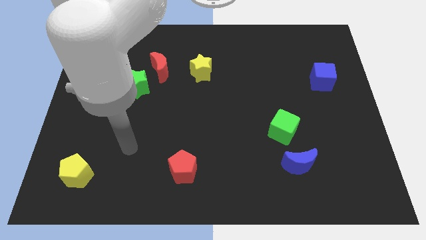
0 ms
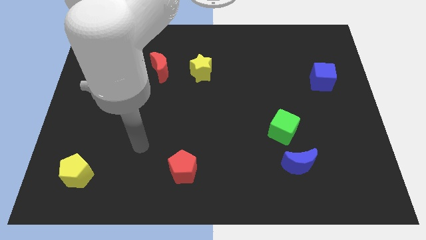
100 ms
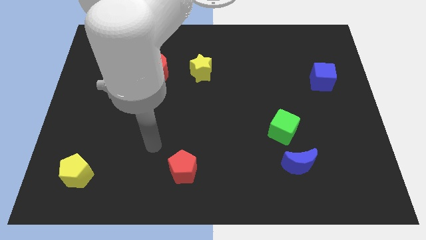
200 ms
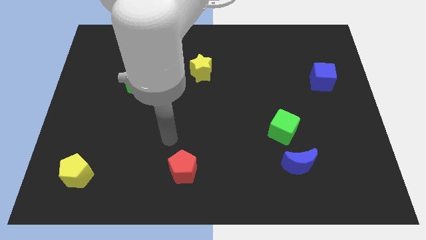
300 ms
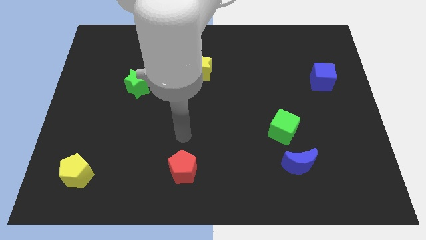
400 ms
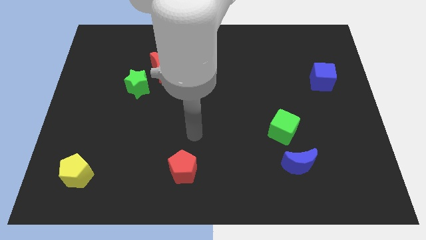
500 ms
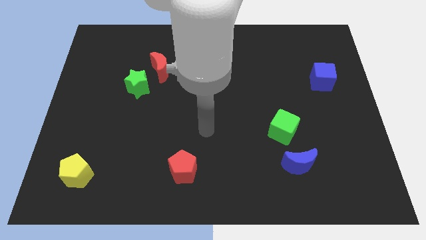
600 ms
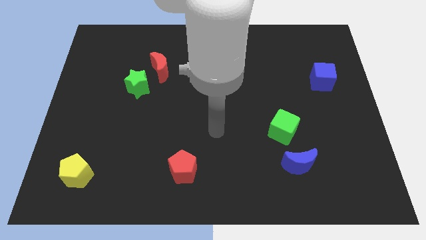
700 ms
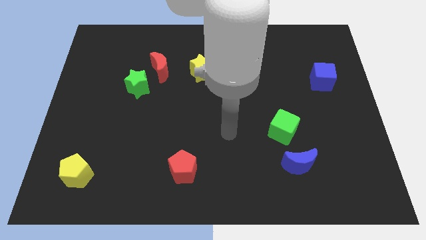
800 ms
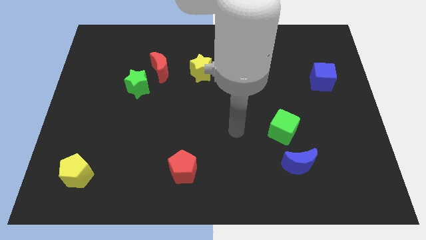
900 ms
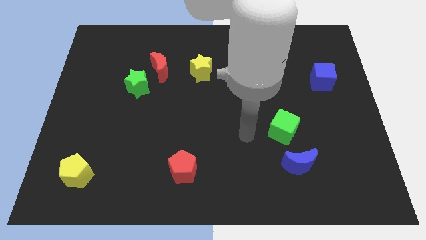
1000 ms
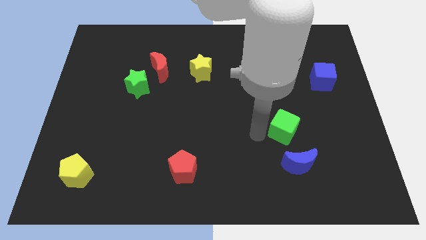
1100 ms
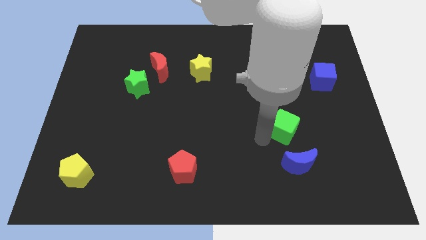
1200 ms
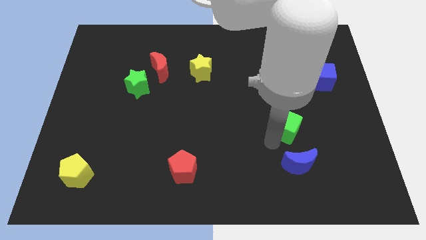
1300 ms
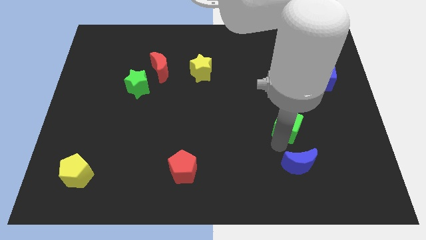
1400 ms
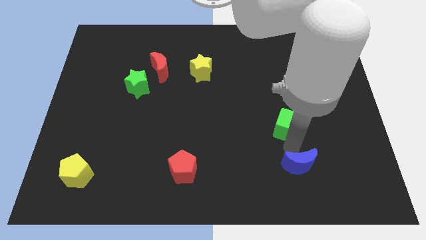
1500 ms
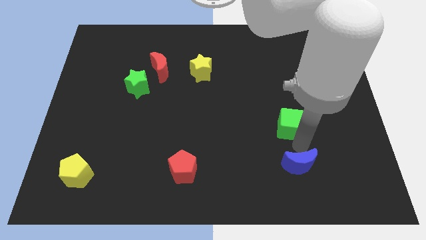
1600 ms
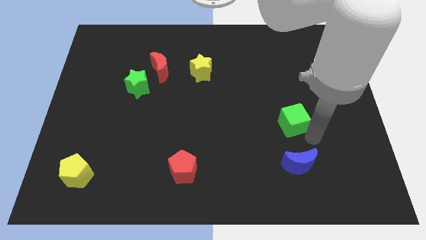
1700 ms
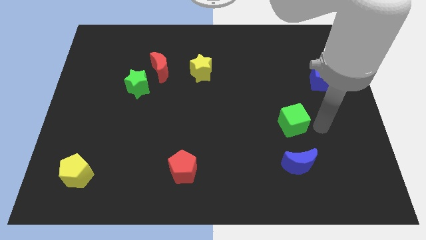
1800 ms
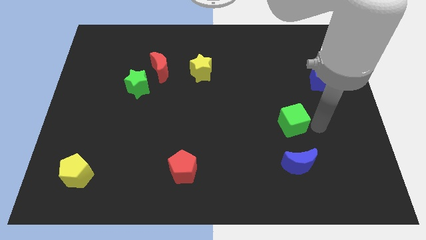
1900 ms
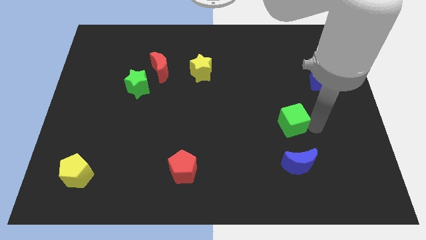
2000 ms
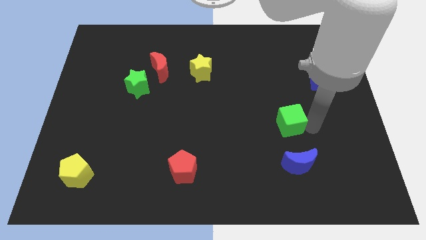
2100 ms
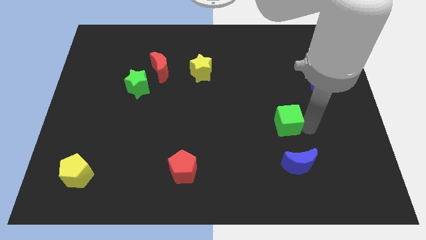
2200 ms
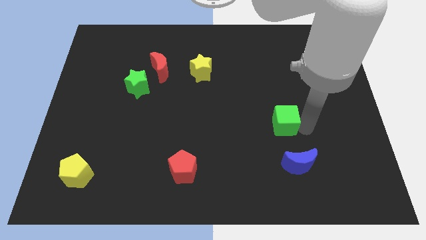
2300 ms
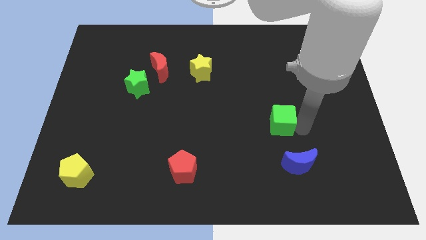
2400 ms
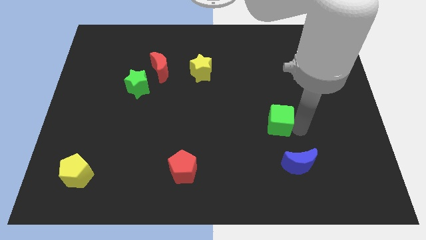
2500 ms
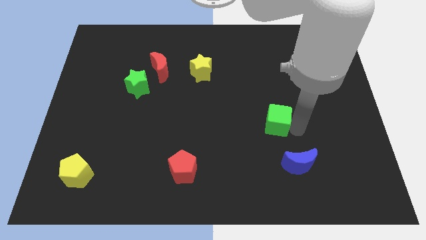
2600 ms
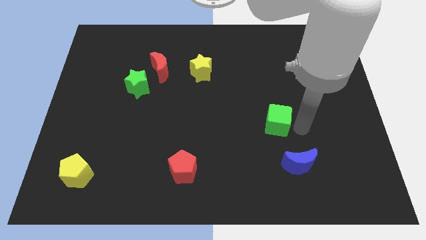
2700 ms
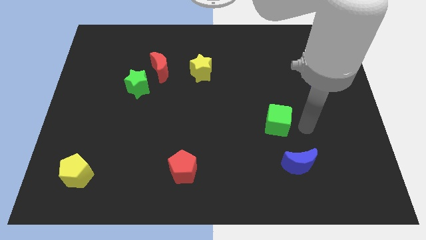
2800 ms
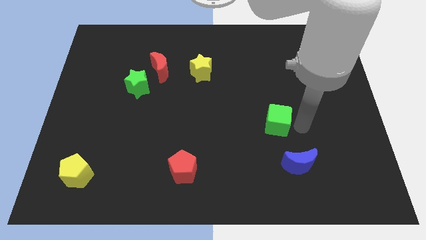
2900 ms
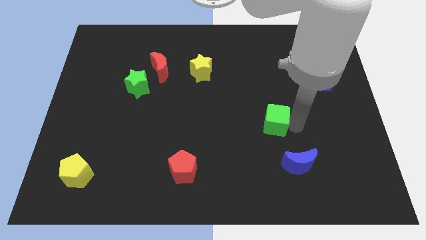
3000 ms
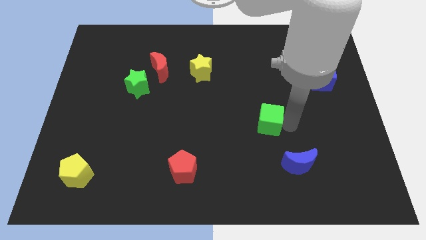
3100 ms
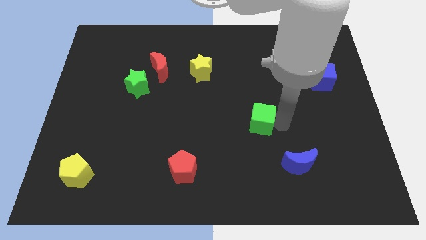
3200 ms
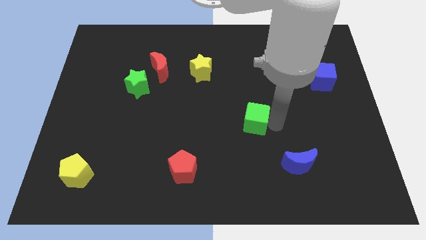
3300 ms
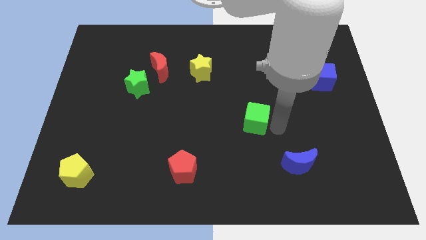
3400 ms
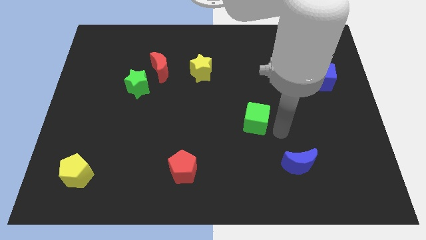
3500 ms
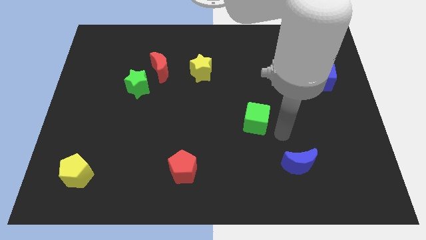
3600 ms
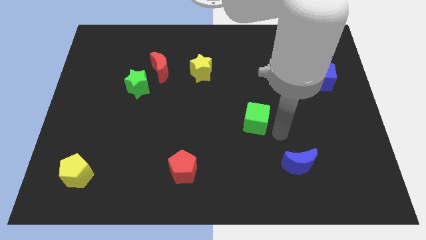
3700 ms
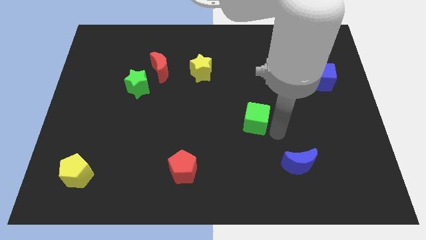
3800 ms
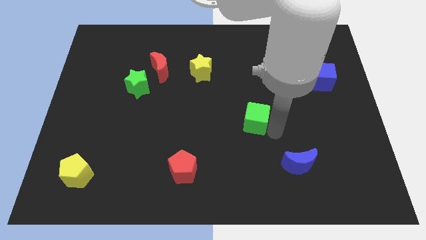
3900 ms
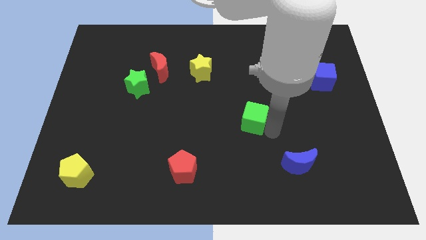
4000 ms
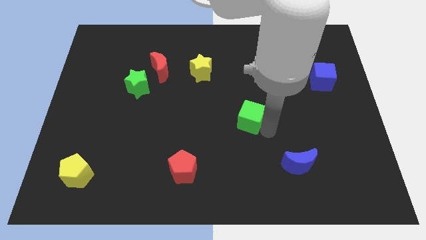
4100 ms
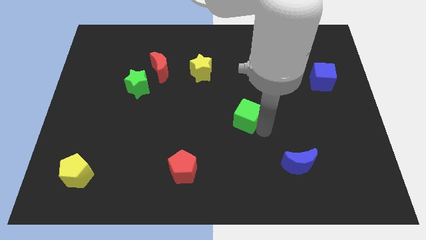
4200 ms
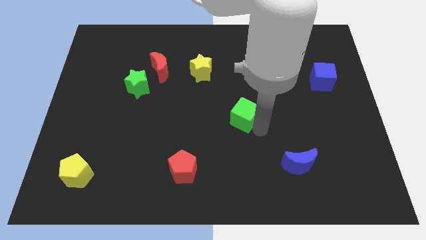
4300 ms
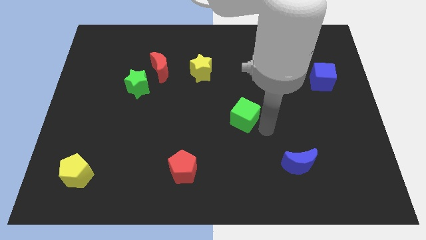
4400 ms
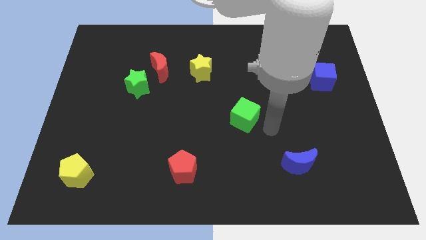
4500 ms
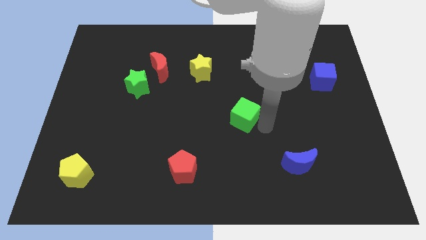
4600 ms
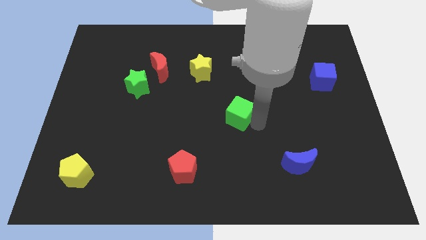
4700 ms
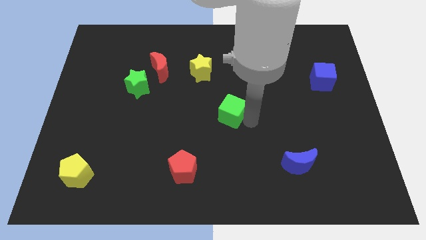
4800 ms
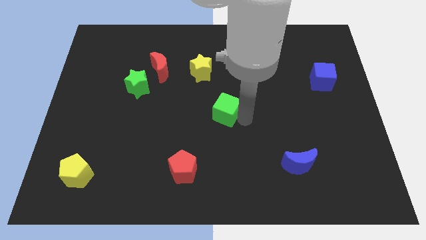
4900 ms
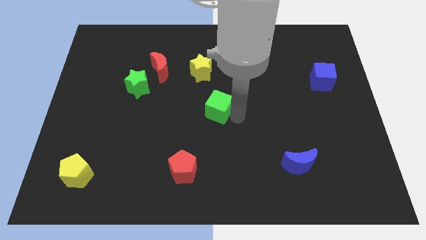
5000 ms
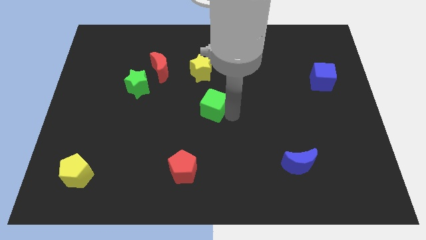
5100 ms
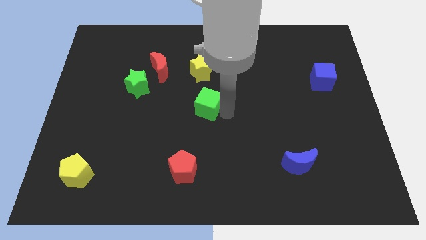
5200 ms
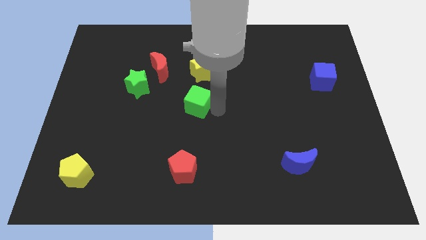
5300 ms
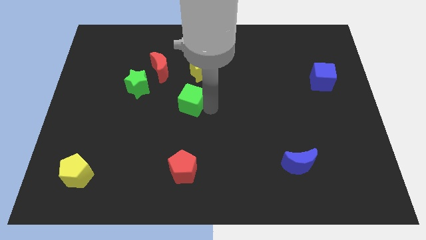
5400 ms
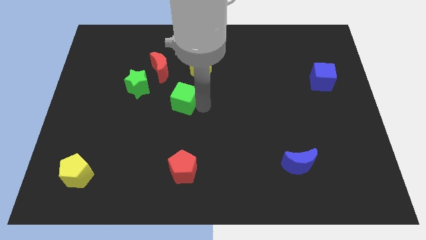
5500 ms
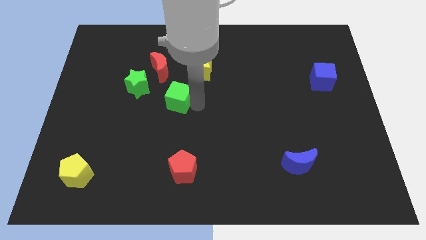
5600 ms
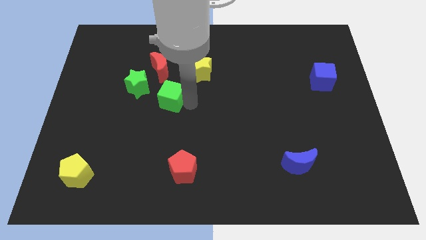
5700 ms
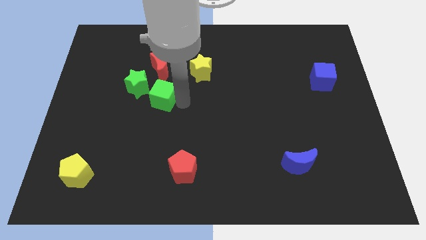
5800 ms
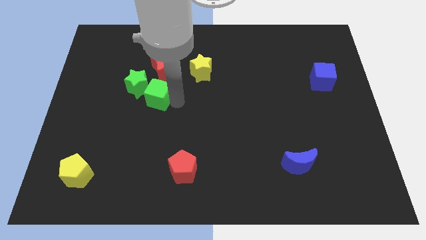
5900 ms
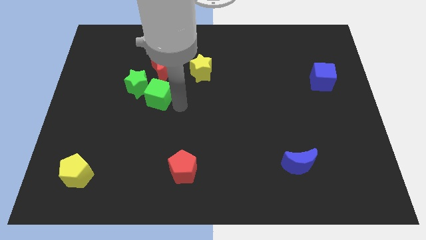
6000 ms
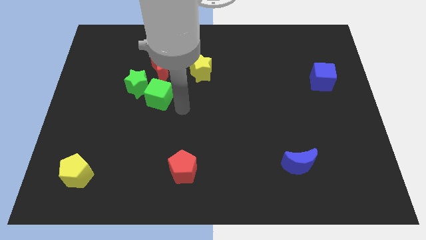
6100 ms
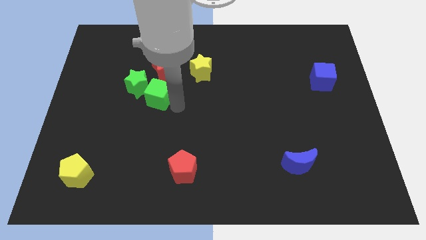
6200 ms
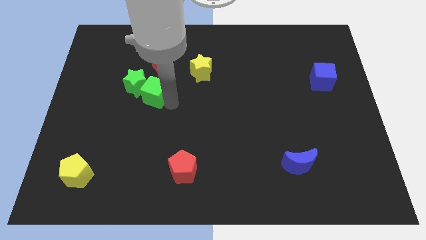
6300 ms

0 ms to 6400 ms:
slide the green cube to the green star

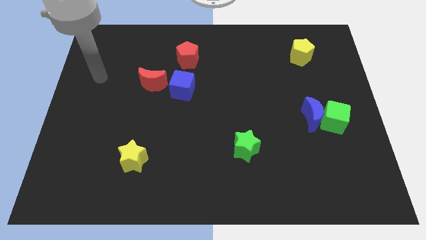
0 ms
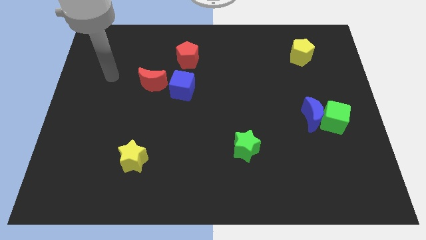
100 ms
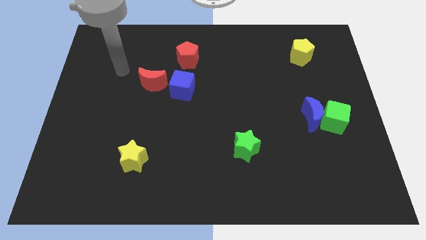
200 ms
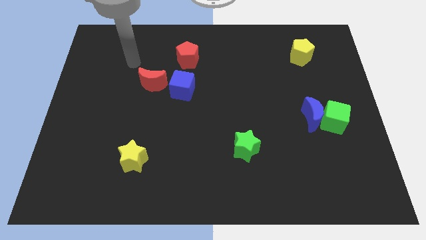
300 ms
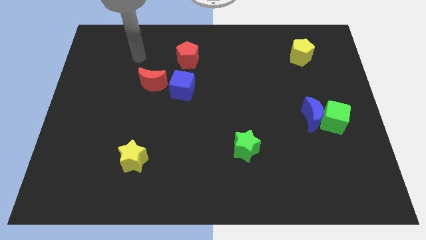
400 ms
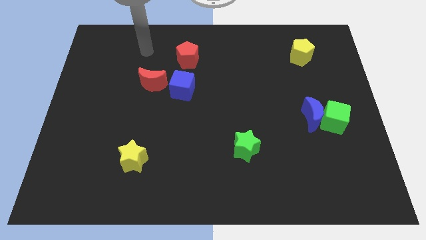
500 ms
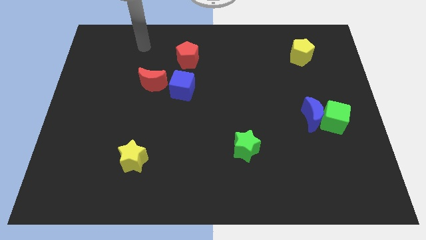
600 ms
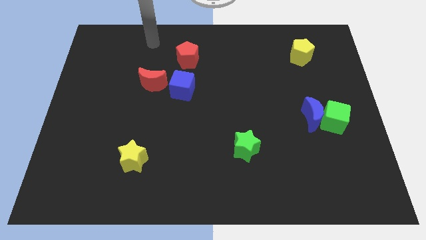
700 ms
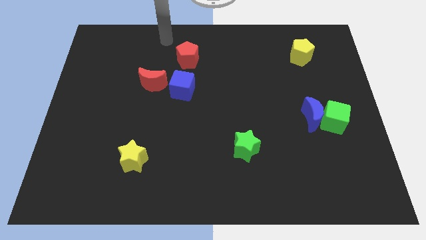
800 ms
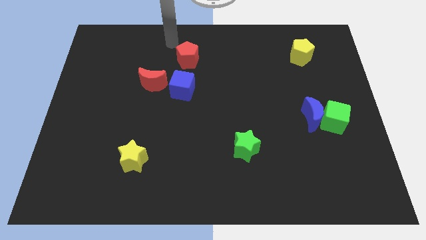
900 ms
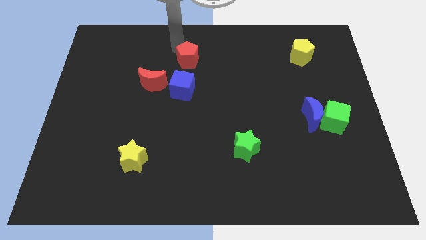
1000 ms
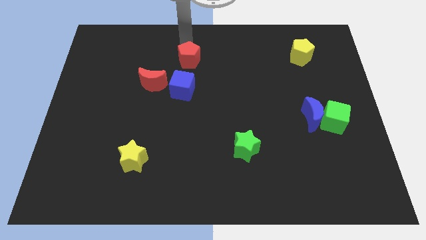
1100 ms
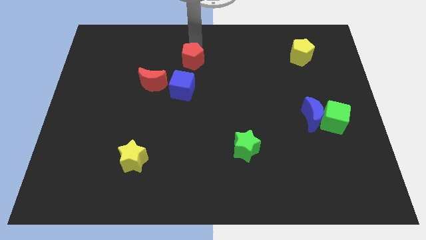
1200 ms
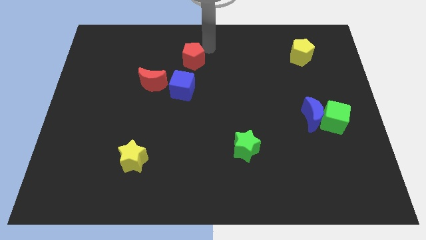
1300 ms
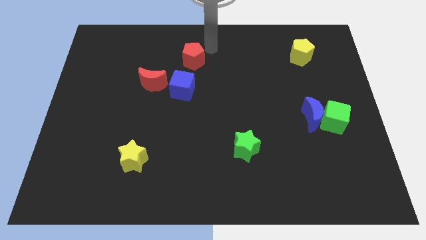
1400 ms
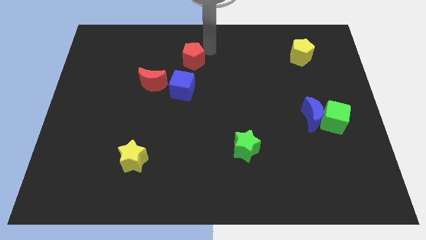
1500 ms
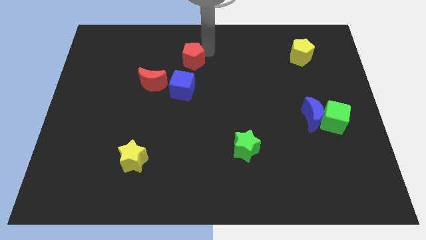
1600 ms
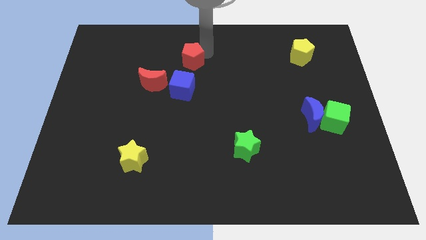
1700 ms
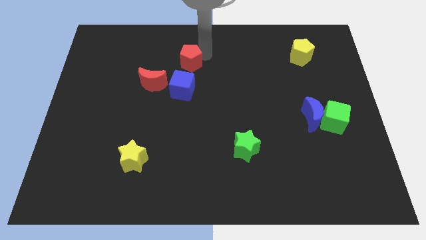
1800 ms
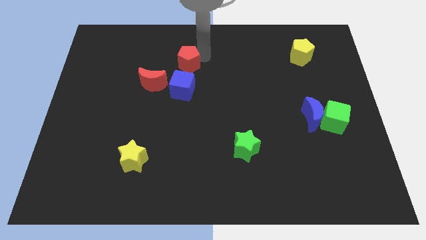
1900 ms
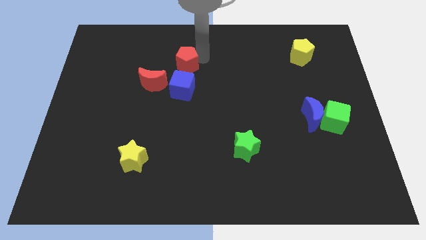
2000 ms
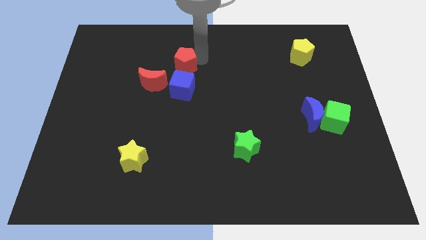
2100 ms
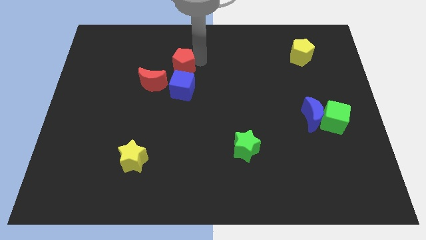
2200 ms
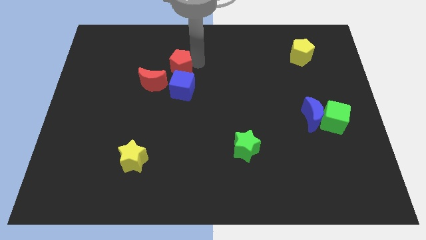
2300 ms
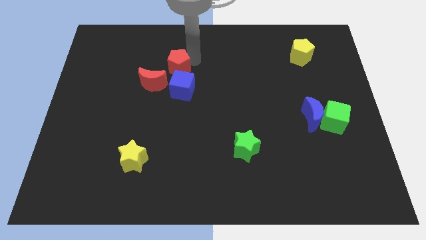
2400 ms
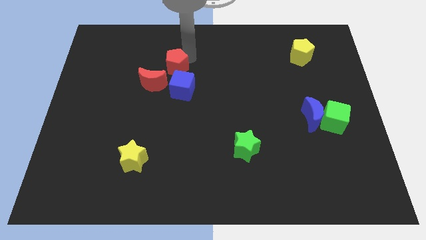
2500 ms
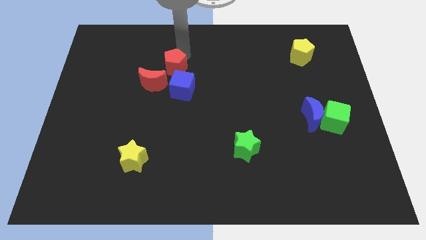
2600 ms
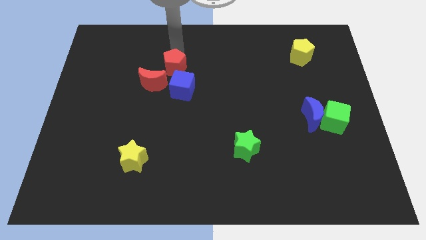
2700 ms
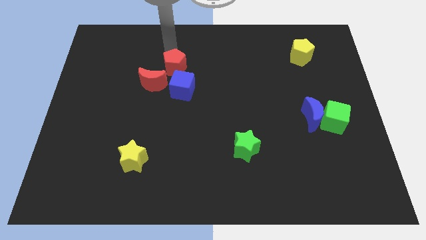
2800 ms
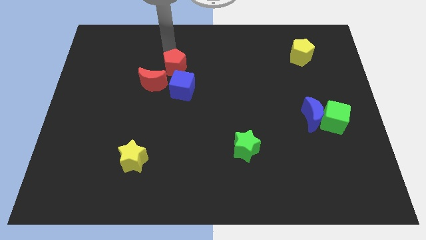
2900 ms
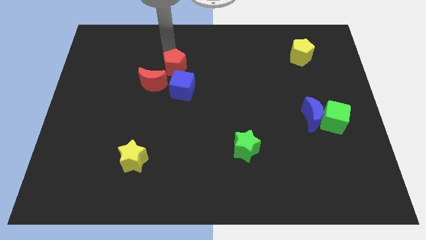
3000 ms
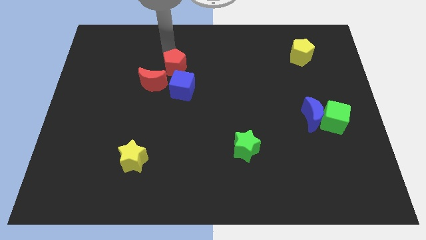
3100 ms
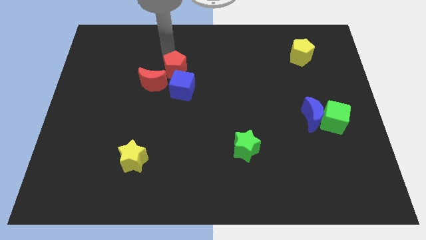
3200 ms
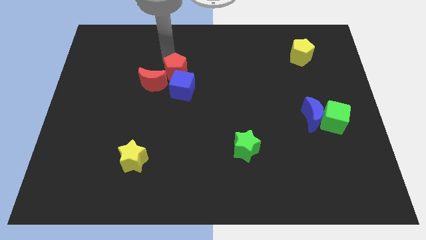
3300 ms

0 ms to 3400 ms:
push the red pentagon towards the blue cube
